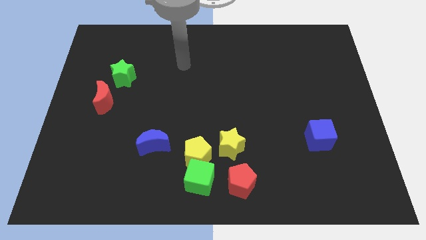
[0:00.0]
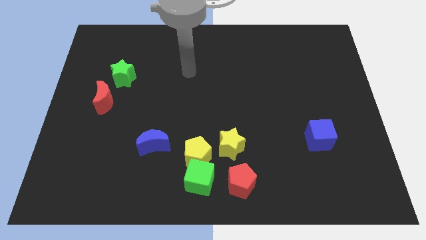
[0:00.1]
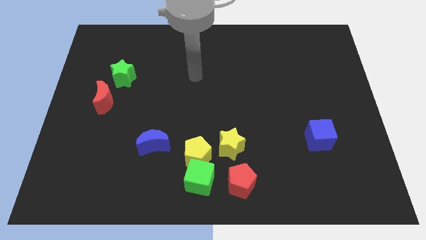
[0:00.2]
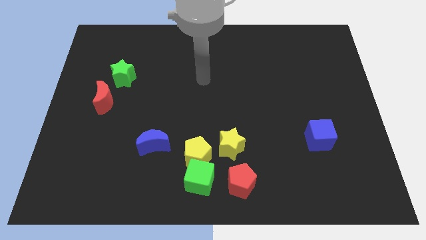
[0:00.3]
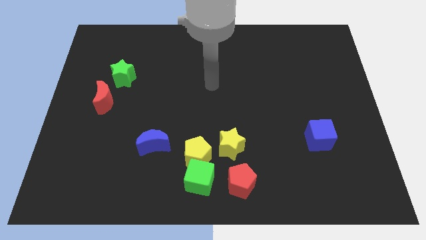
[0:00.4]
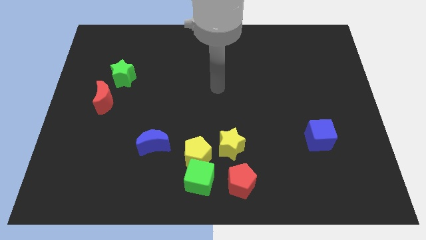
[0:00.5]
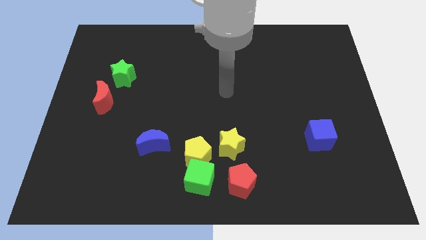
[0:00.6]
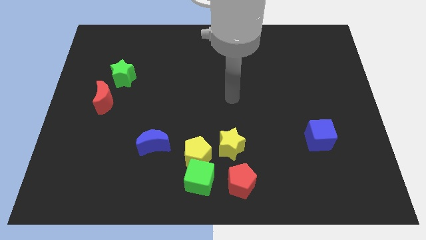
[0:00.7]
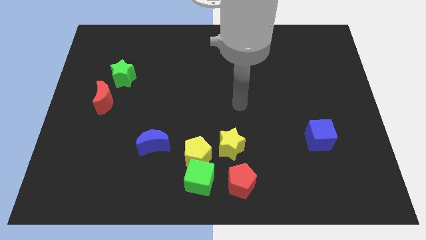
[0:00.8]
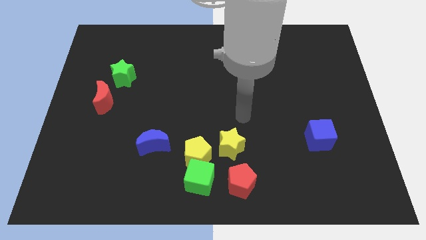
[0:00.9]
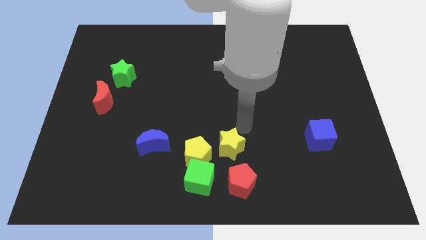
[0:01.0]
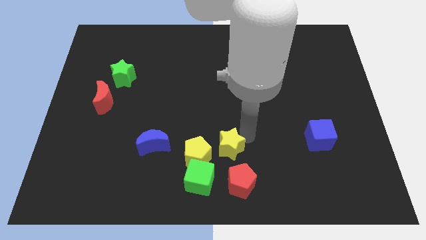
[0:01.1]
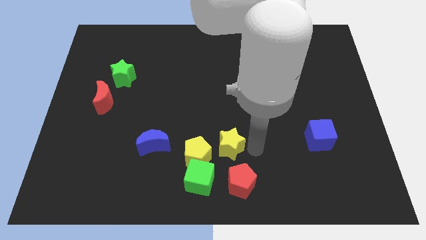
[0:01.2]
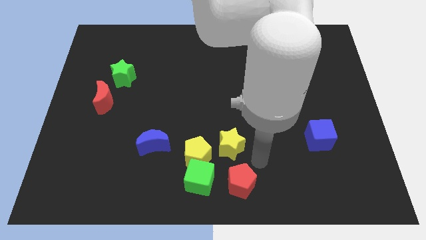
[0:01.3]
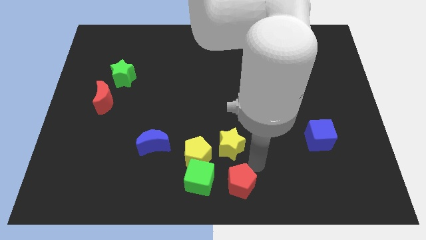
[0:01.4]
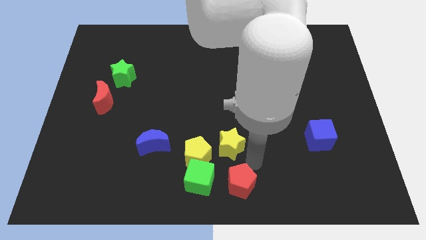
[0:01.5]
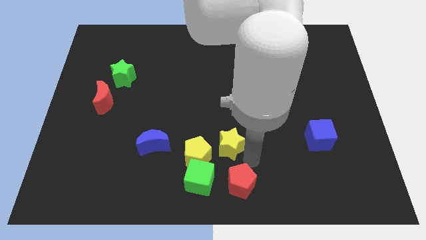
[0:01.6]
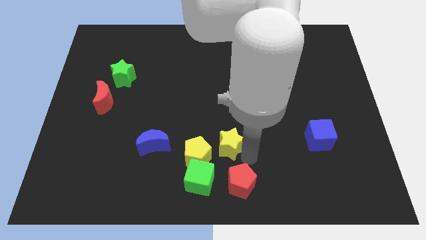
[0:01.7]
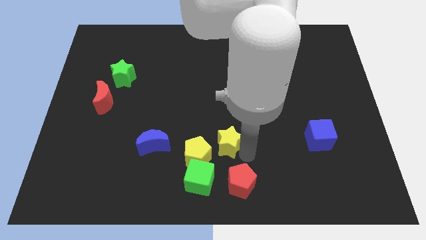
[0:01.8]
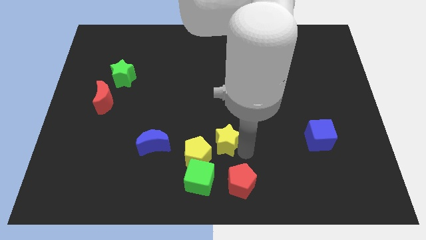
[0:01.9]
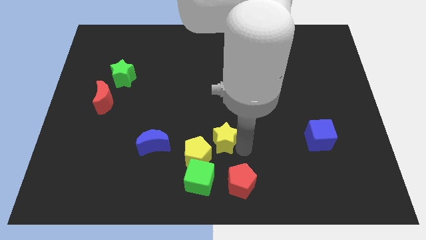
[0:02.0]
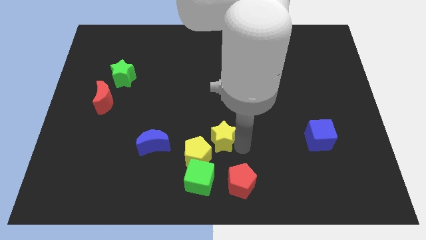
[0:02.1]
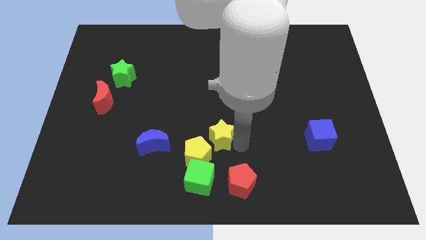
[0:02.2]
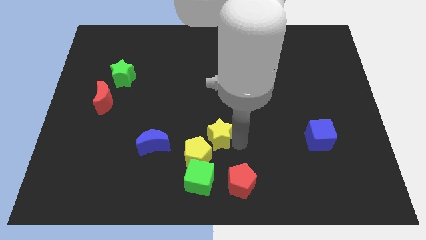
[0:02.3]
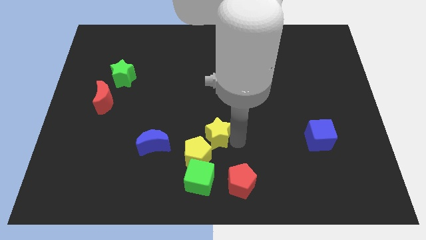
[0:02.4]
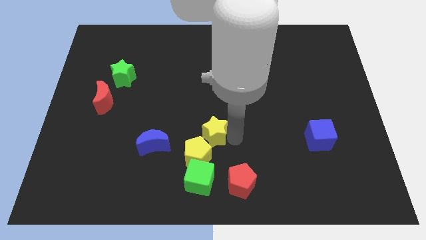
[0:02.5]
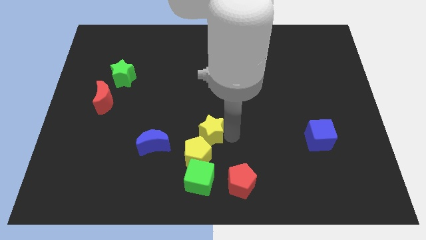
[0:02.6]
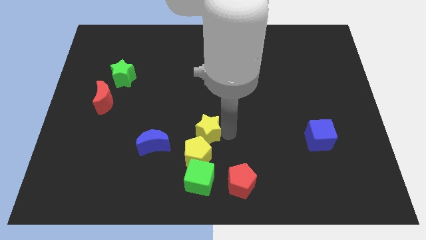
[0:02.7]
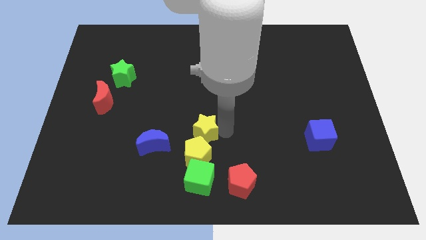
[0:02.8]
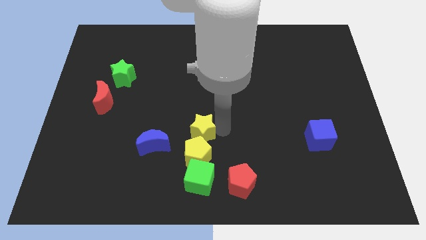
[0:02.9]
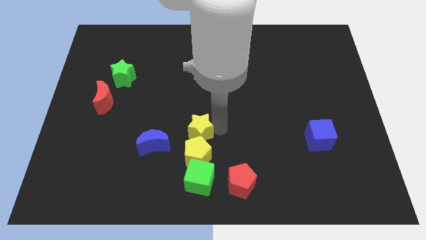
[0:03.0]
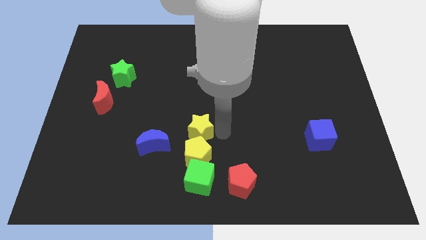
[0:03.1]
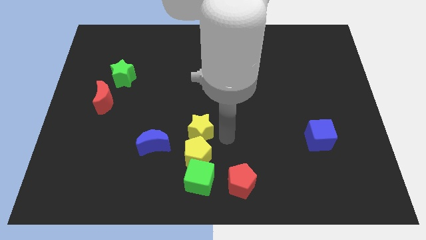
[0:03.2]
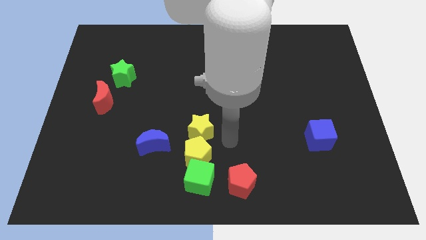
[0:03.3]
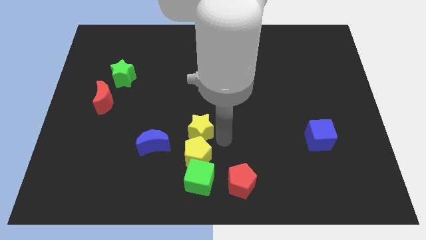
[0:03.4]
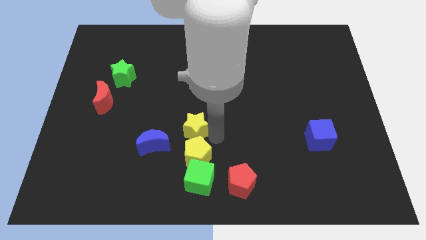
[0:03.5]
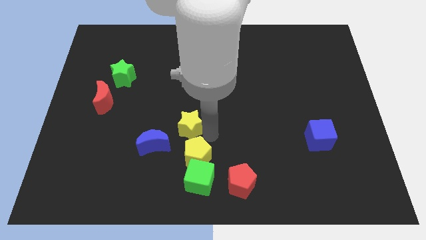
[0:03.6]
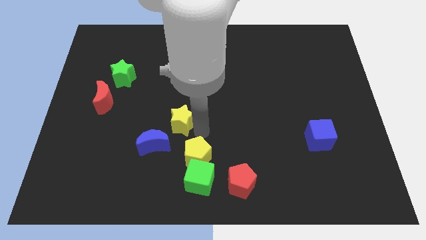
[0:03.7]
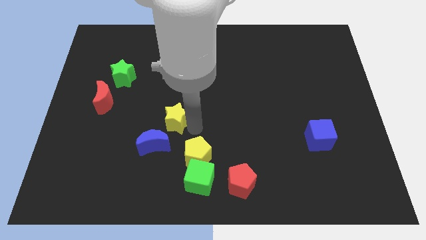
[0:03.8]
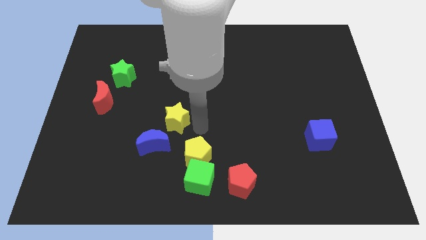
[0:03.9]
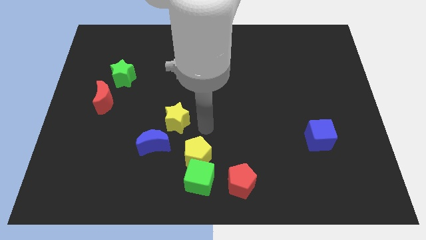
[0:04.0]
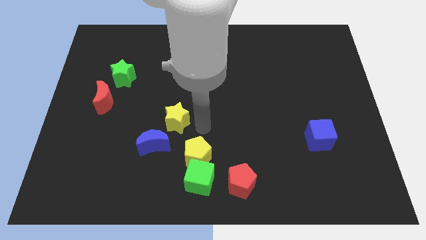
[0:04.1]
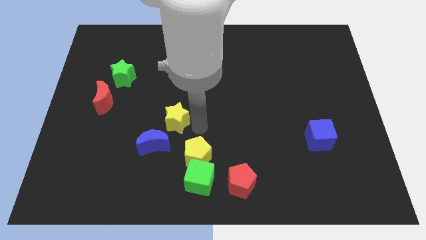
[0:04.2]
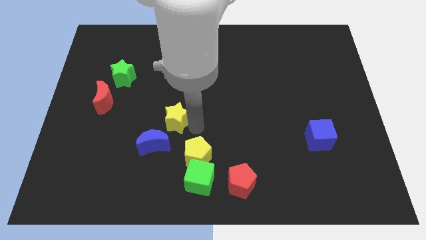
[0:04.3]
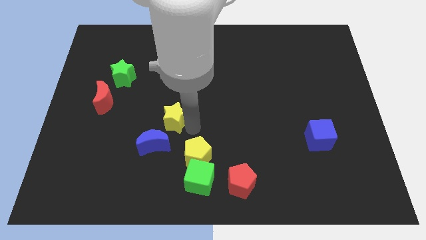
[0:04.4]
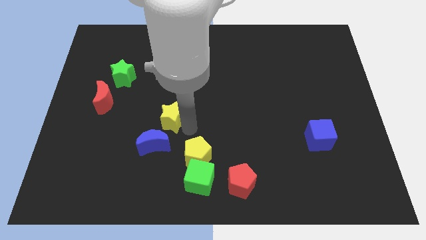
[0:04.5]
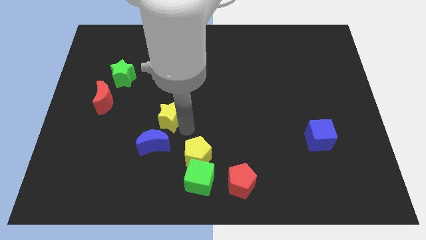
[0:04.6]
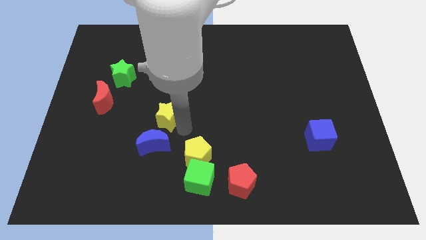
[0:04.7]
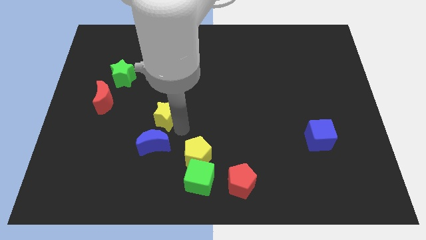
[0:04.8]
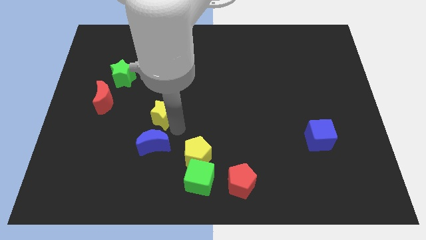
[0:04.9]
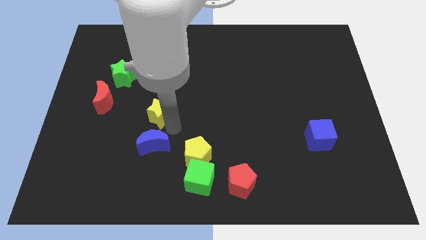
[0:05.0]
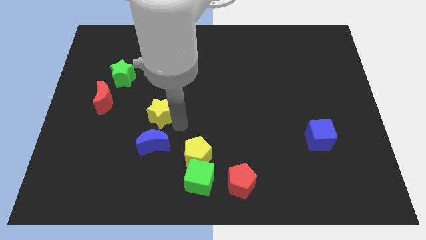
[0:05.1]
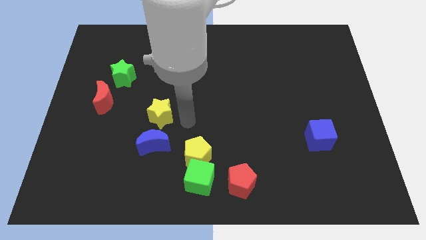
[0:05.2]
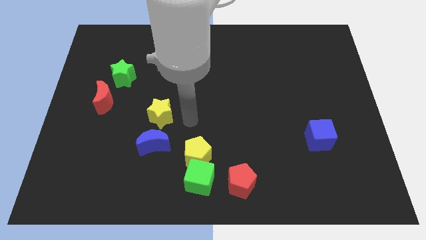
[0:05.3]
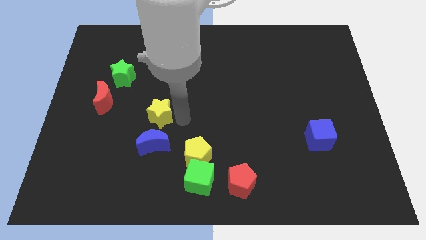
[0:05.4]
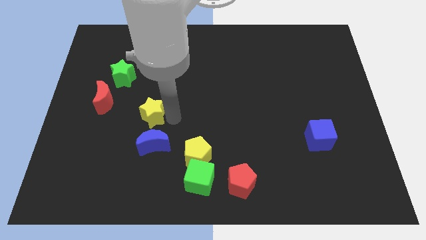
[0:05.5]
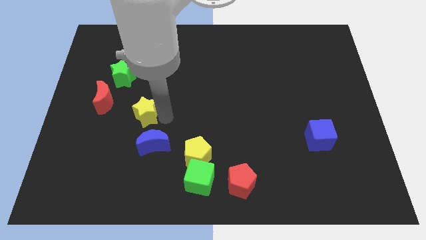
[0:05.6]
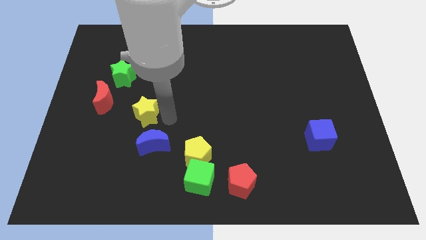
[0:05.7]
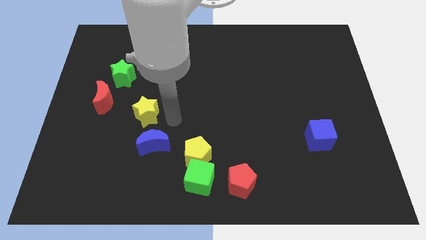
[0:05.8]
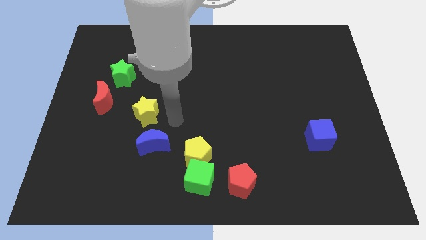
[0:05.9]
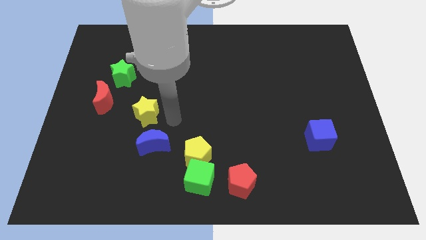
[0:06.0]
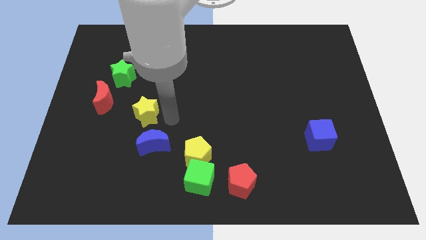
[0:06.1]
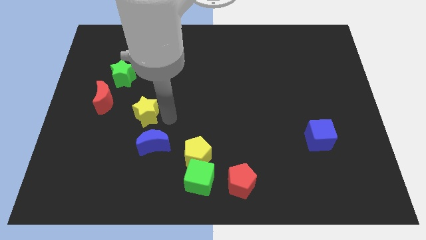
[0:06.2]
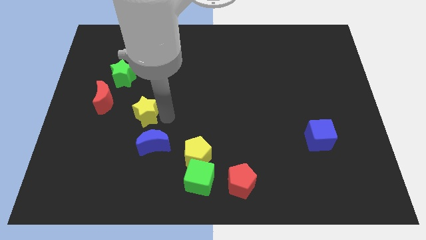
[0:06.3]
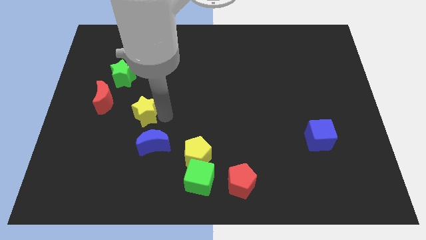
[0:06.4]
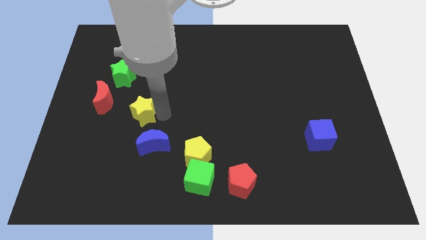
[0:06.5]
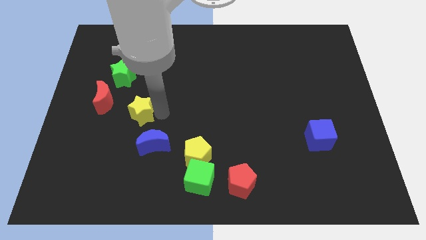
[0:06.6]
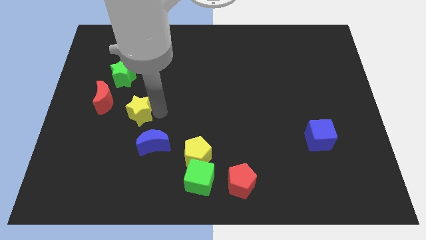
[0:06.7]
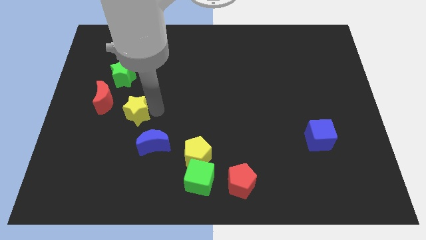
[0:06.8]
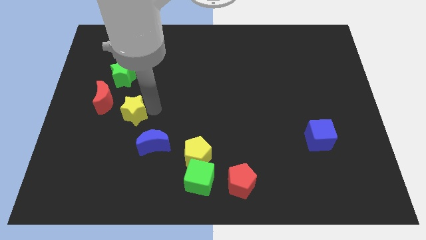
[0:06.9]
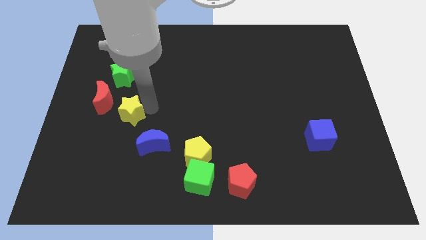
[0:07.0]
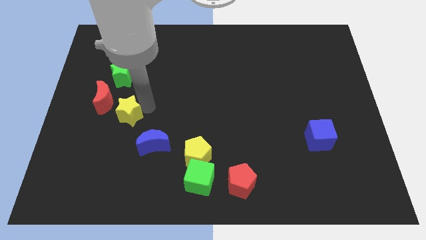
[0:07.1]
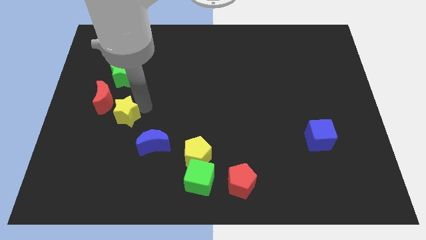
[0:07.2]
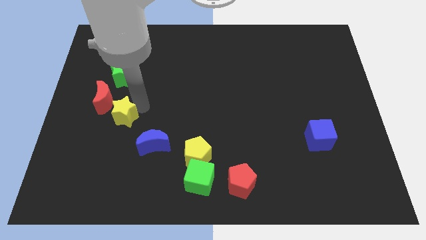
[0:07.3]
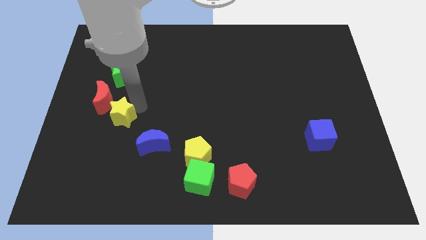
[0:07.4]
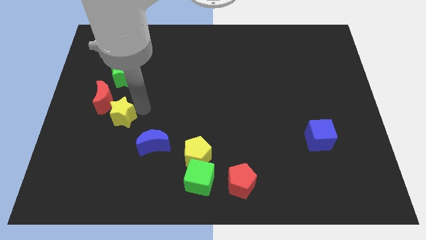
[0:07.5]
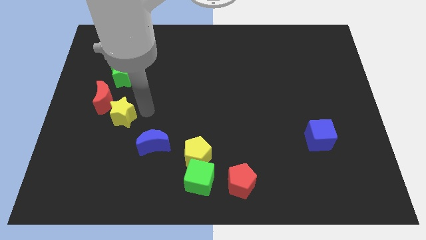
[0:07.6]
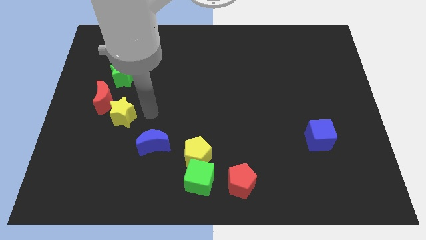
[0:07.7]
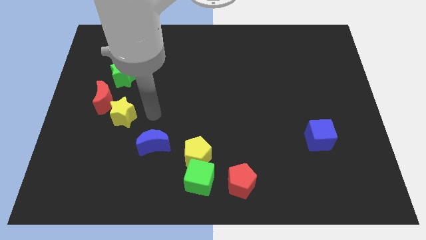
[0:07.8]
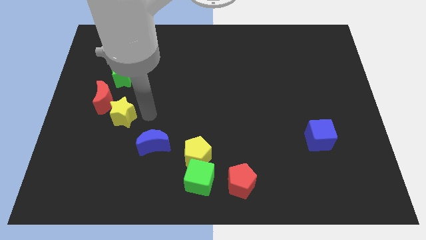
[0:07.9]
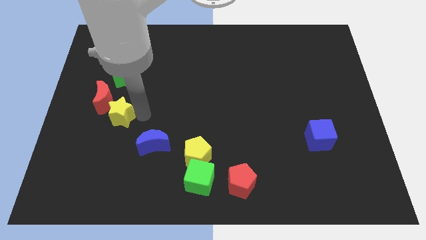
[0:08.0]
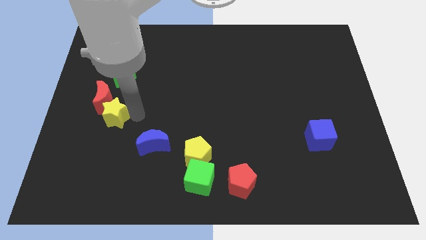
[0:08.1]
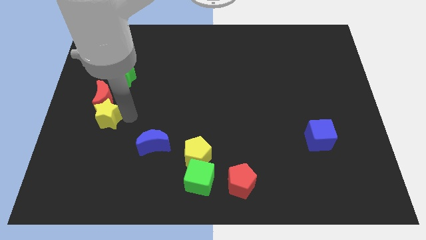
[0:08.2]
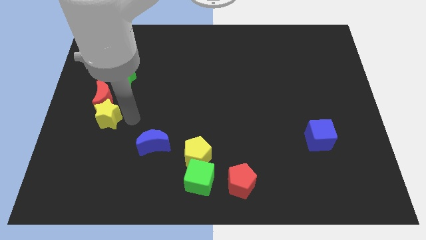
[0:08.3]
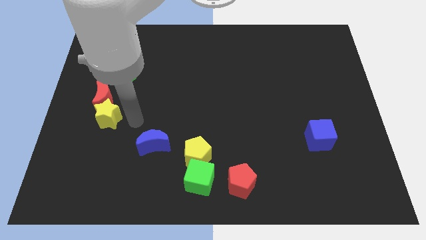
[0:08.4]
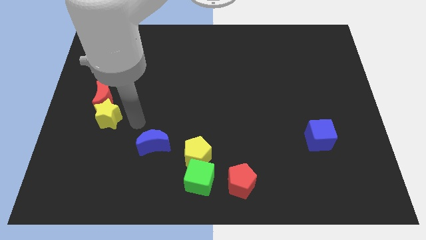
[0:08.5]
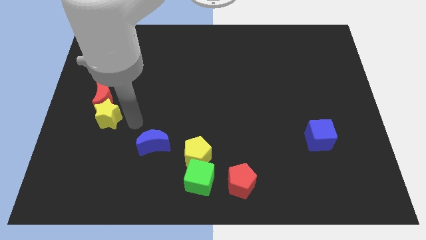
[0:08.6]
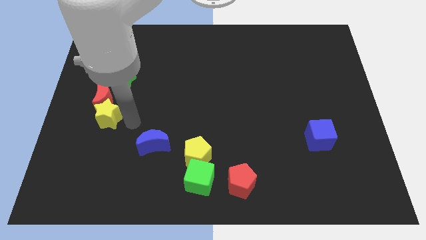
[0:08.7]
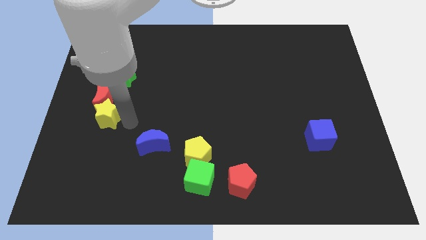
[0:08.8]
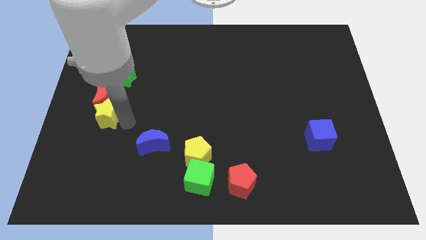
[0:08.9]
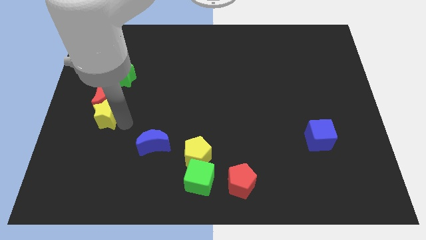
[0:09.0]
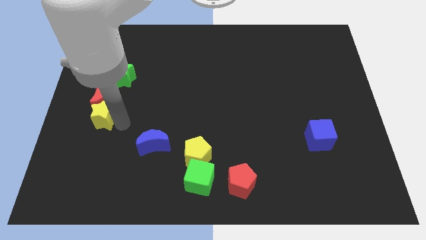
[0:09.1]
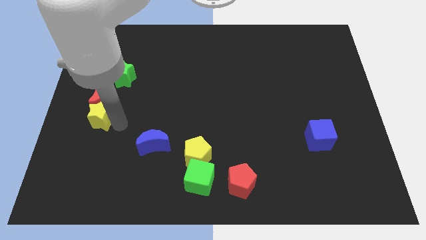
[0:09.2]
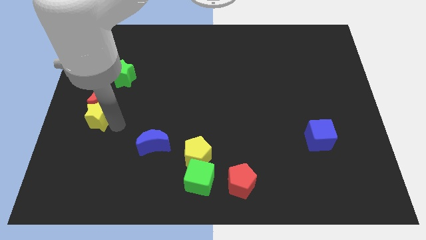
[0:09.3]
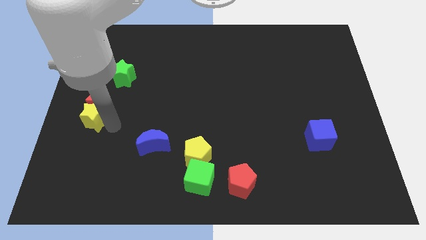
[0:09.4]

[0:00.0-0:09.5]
move the yellow star to the left side
